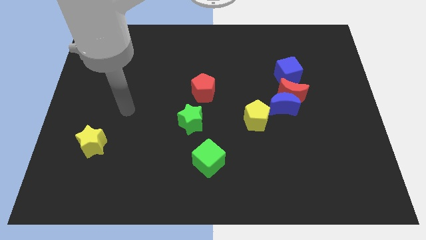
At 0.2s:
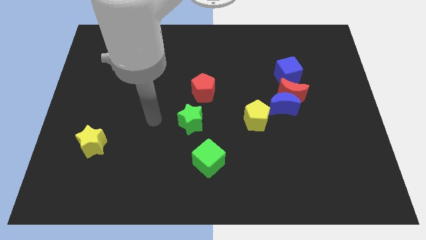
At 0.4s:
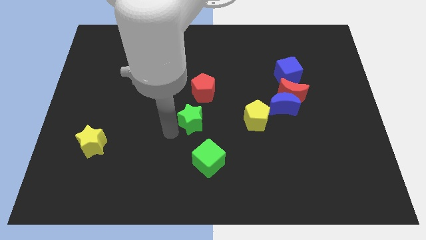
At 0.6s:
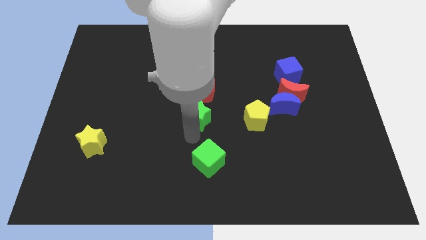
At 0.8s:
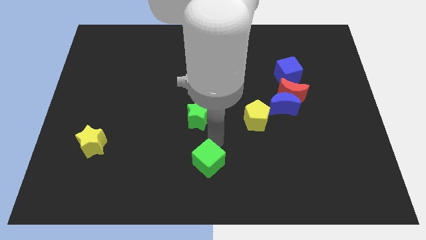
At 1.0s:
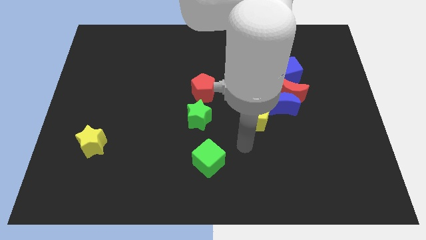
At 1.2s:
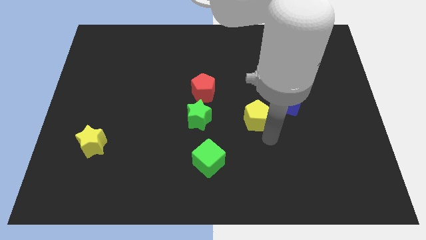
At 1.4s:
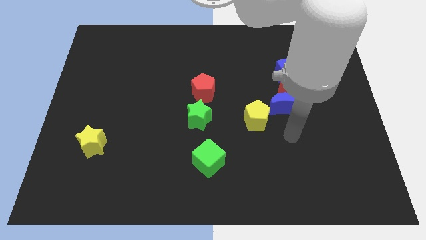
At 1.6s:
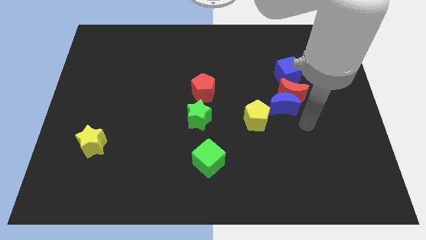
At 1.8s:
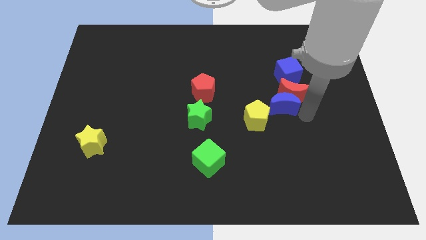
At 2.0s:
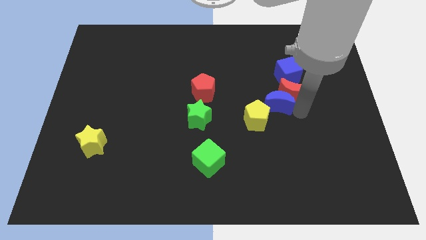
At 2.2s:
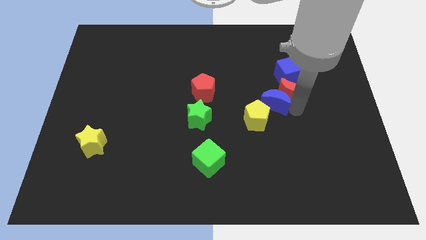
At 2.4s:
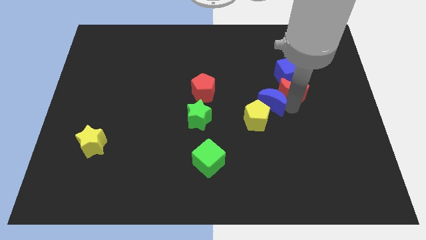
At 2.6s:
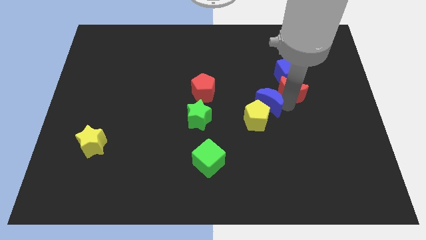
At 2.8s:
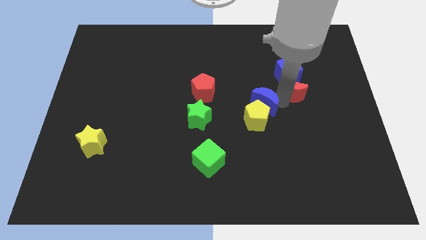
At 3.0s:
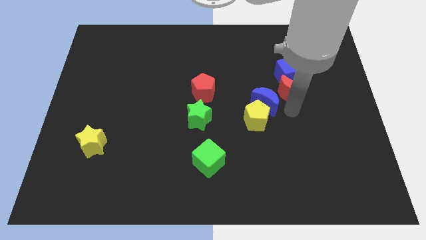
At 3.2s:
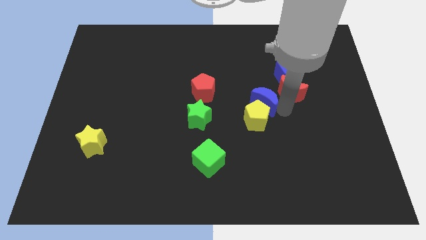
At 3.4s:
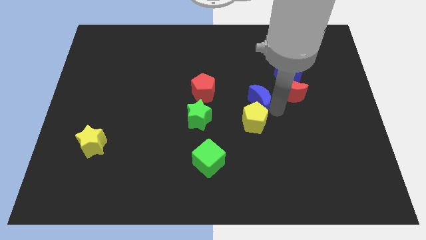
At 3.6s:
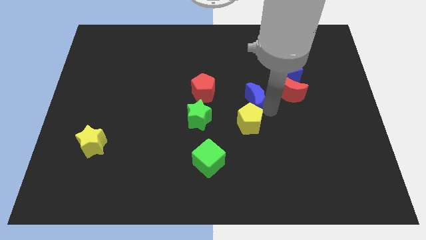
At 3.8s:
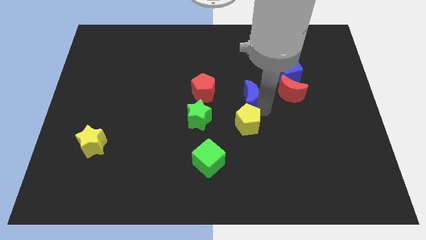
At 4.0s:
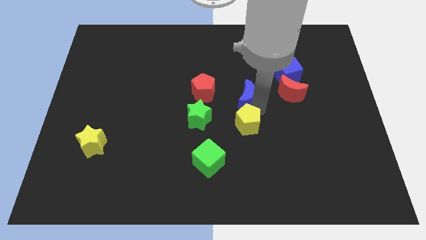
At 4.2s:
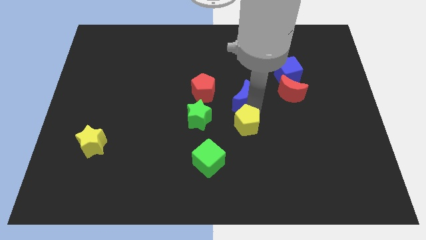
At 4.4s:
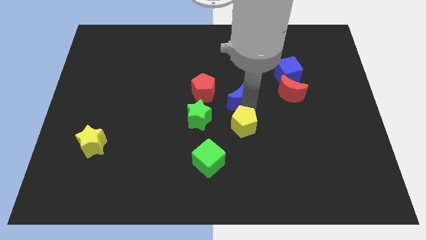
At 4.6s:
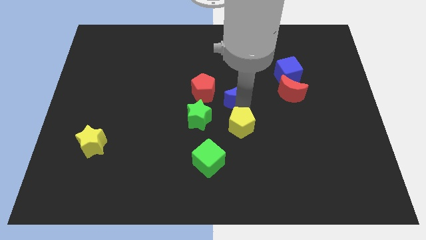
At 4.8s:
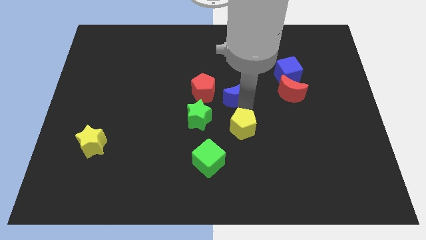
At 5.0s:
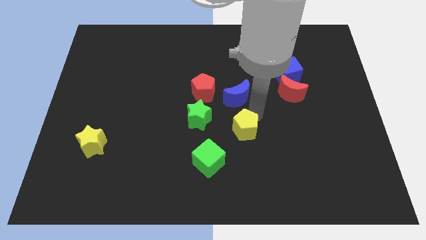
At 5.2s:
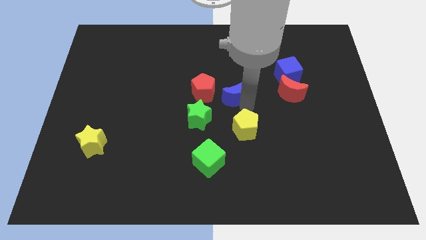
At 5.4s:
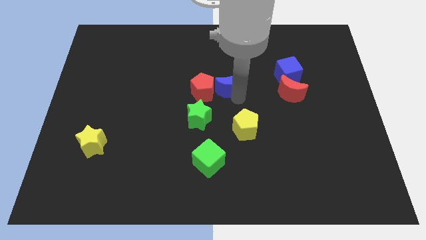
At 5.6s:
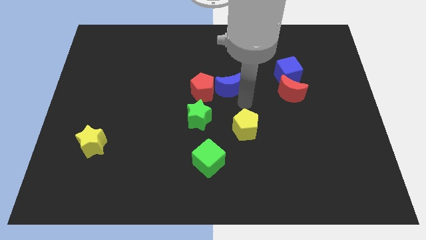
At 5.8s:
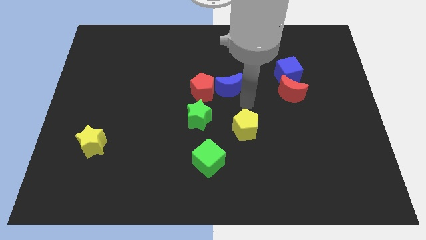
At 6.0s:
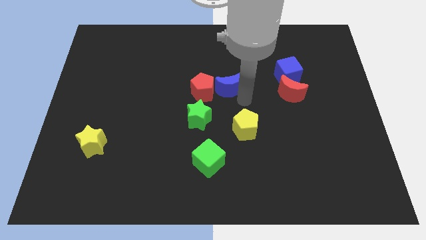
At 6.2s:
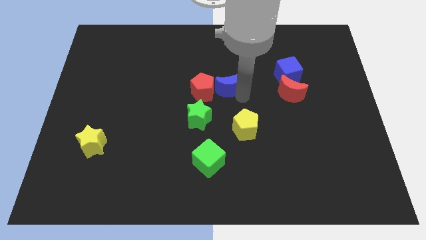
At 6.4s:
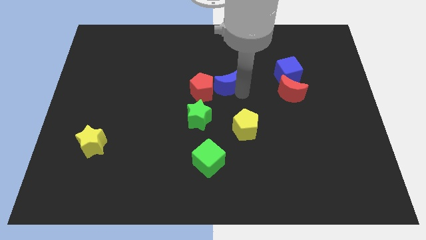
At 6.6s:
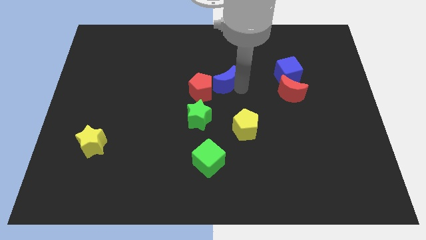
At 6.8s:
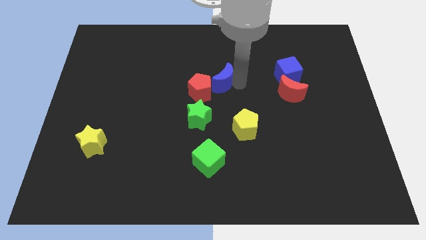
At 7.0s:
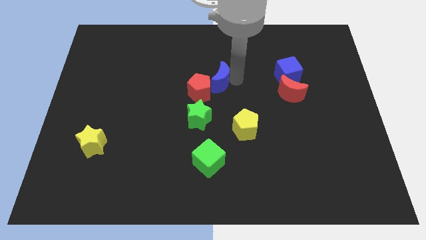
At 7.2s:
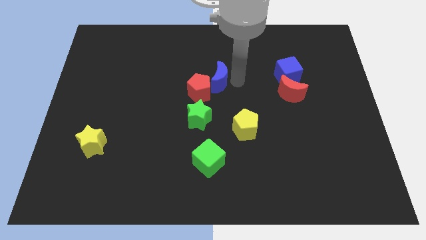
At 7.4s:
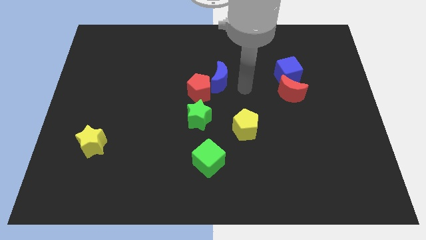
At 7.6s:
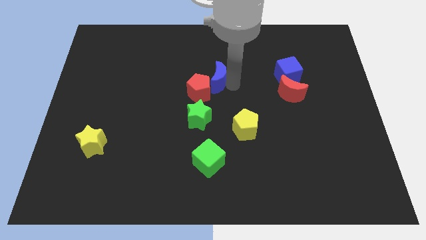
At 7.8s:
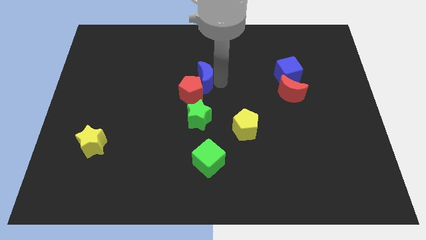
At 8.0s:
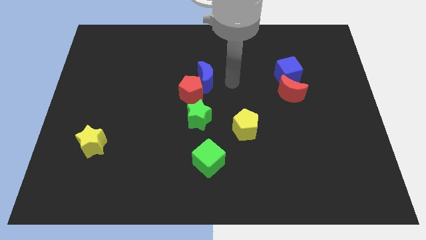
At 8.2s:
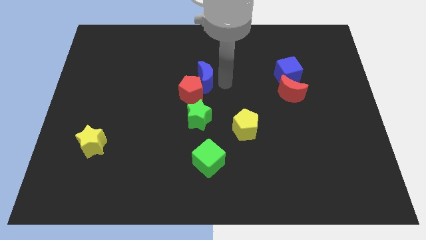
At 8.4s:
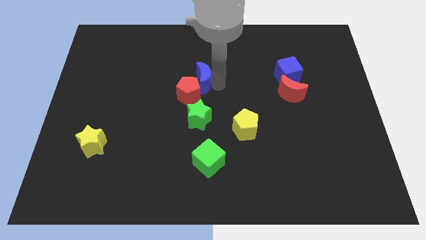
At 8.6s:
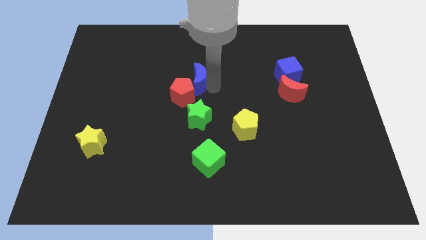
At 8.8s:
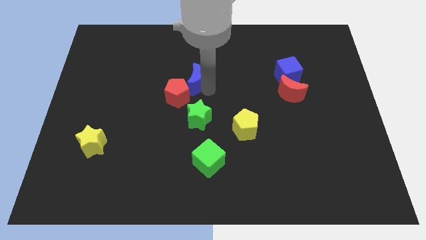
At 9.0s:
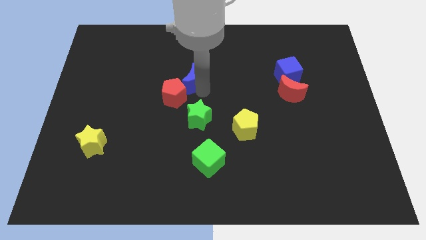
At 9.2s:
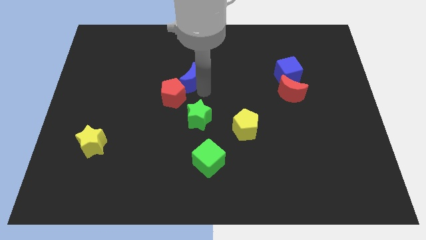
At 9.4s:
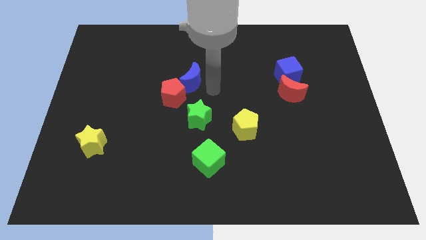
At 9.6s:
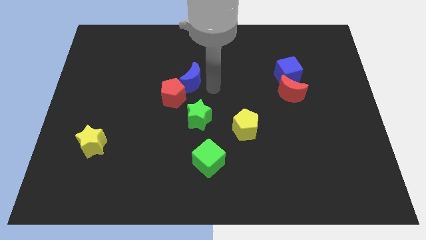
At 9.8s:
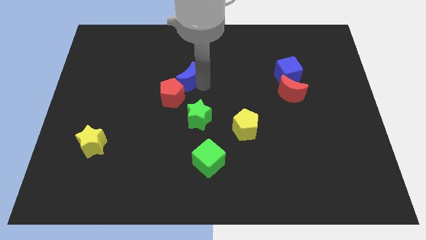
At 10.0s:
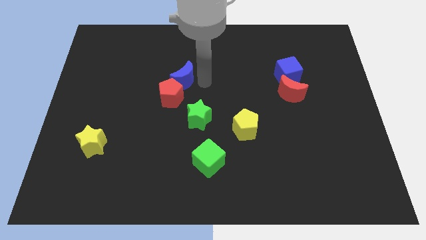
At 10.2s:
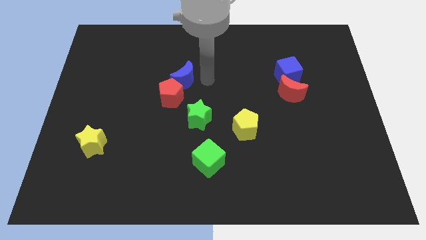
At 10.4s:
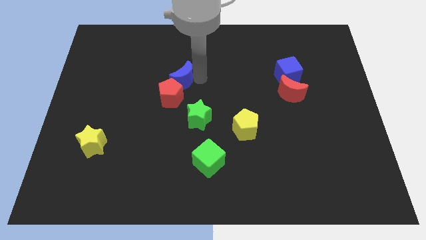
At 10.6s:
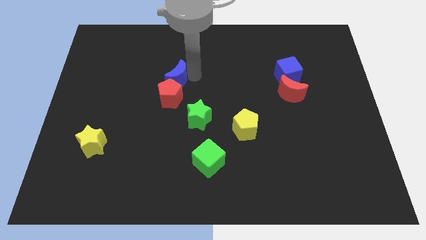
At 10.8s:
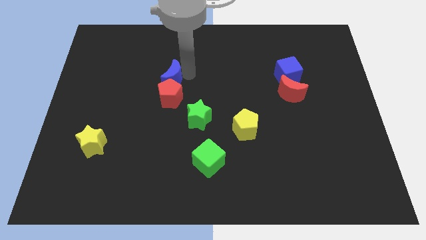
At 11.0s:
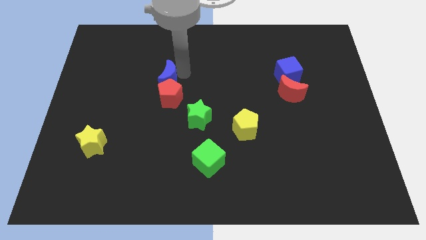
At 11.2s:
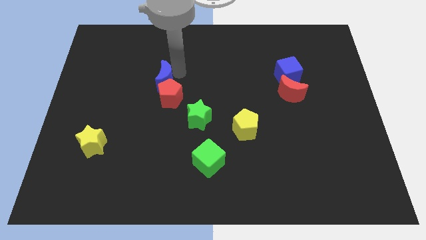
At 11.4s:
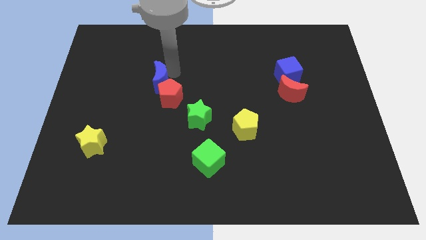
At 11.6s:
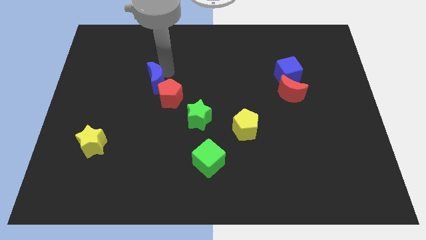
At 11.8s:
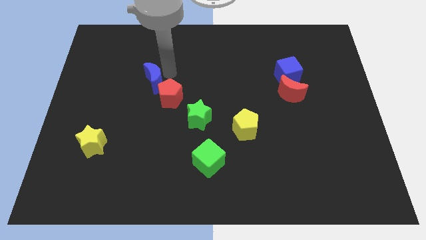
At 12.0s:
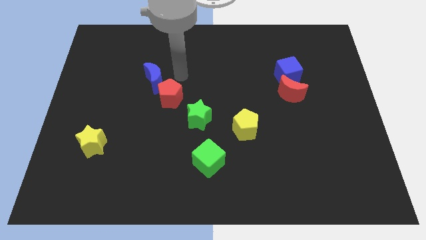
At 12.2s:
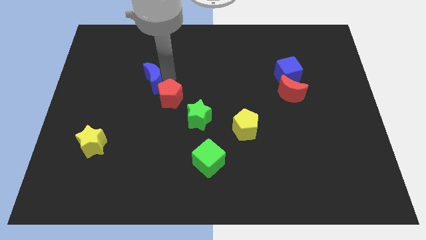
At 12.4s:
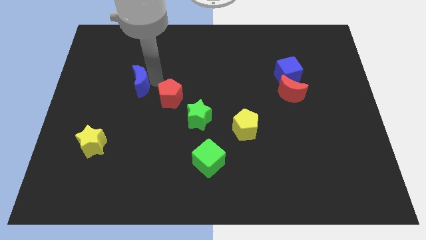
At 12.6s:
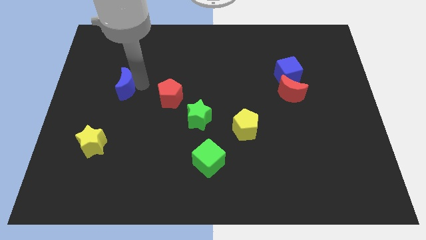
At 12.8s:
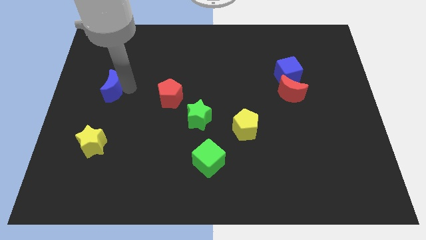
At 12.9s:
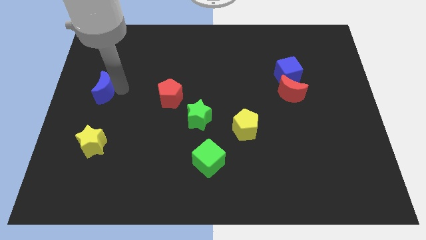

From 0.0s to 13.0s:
put the blue moon to the left side of the board

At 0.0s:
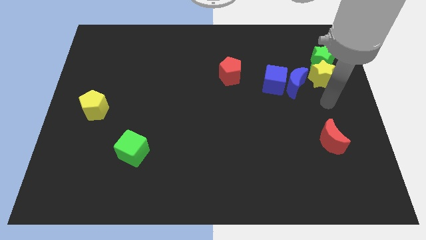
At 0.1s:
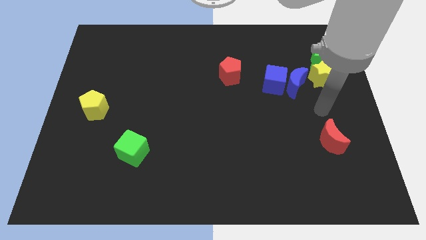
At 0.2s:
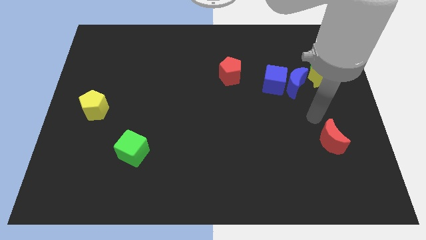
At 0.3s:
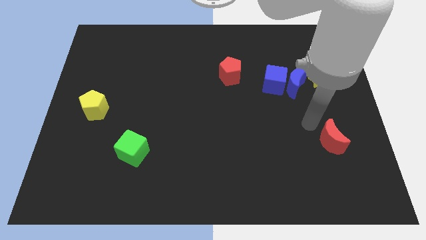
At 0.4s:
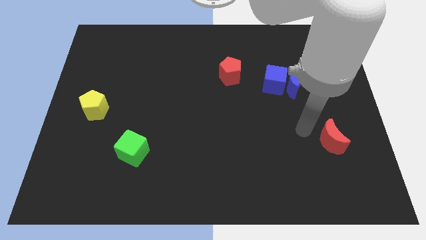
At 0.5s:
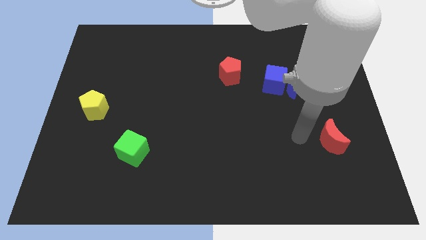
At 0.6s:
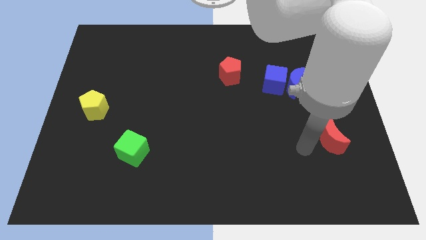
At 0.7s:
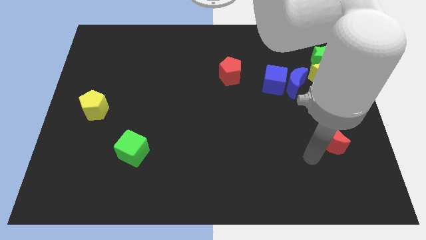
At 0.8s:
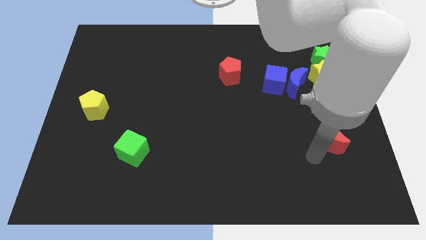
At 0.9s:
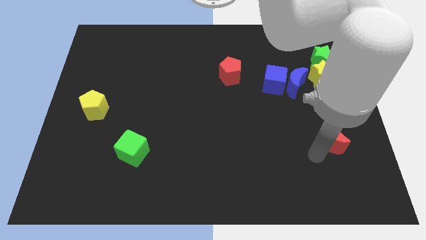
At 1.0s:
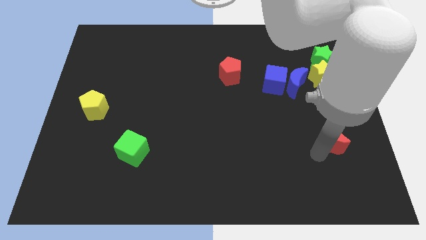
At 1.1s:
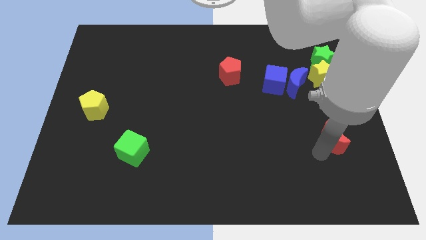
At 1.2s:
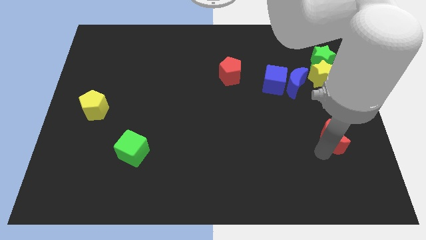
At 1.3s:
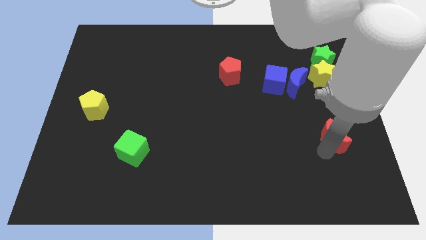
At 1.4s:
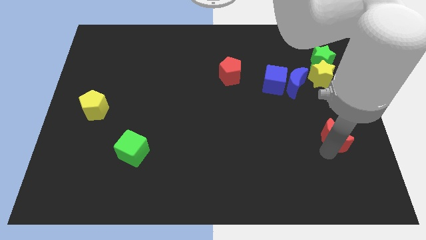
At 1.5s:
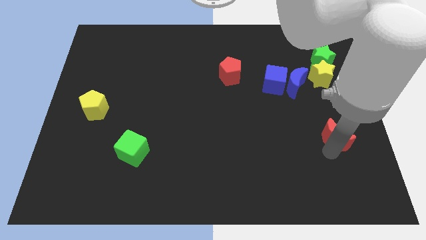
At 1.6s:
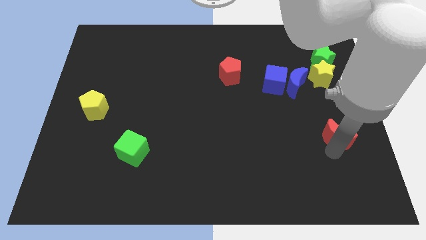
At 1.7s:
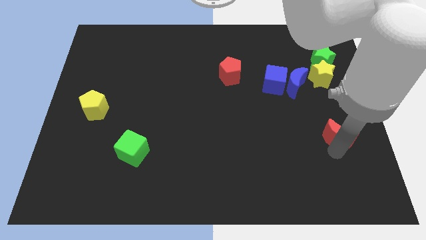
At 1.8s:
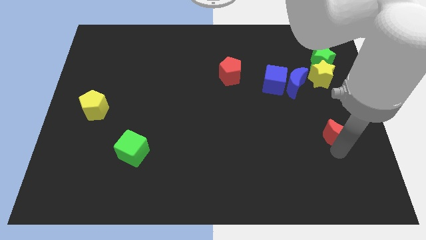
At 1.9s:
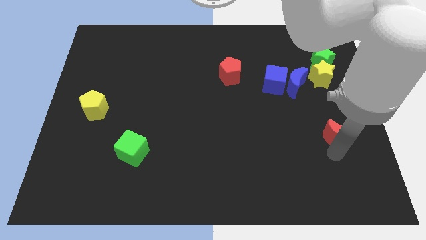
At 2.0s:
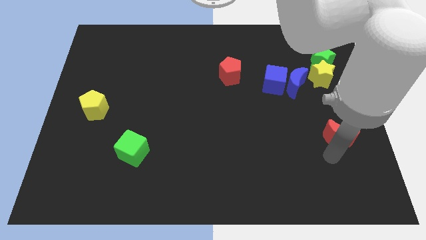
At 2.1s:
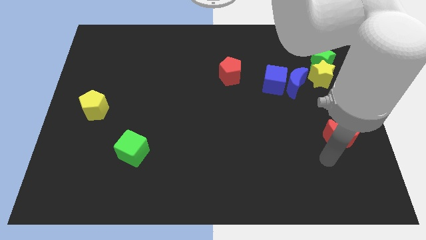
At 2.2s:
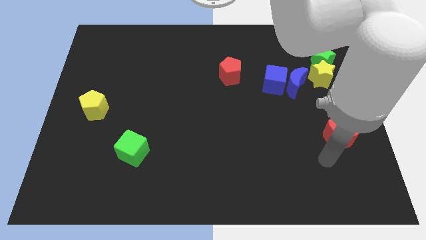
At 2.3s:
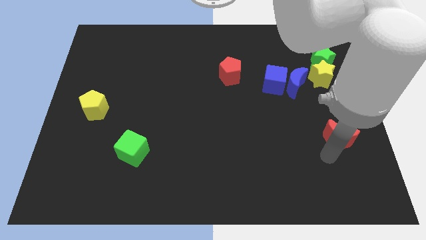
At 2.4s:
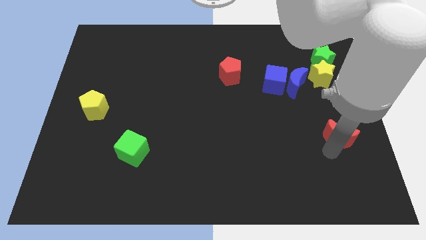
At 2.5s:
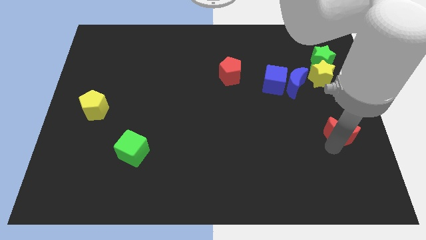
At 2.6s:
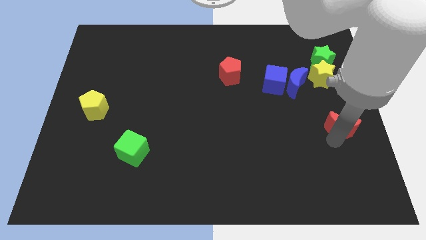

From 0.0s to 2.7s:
move the red moon to the center right
